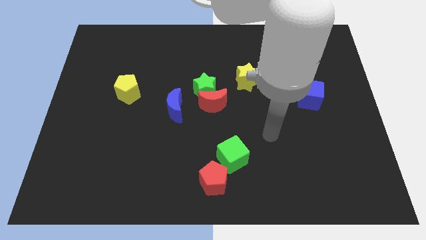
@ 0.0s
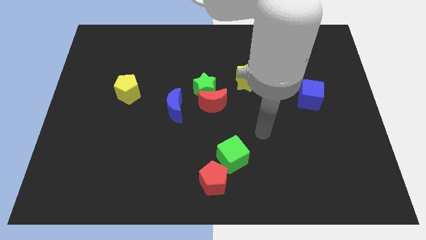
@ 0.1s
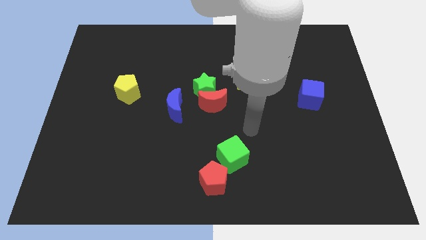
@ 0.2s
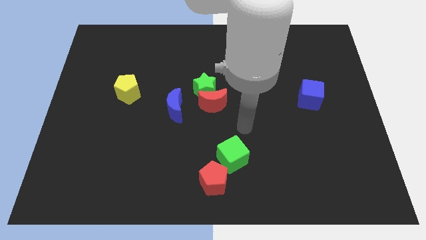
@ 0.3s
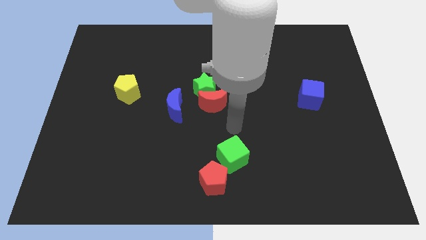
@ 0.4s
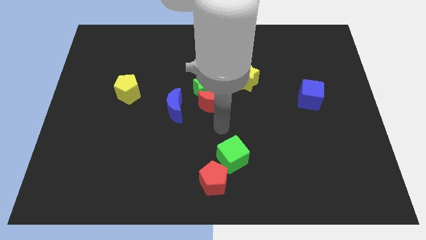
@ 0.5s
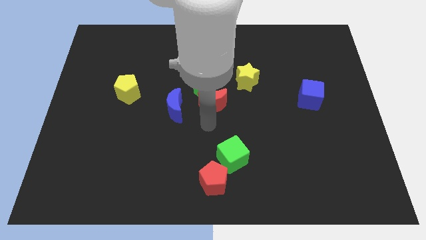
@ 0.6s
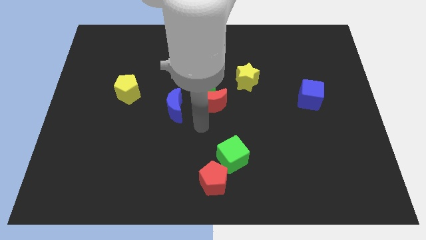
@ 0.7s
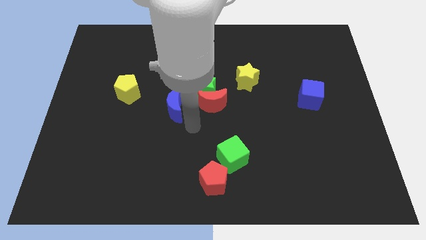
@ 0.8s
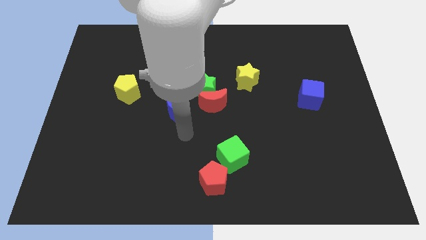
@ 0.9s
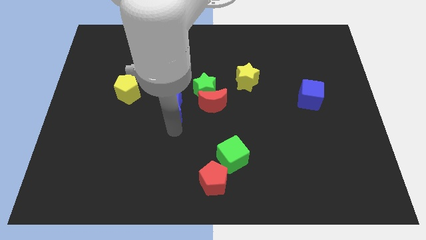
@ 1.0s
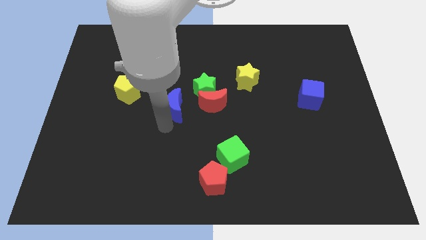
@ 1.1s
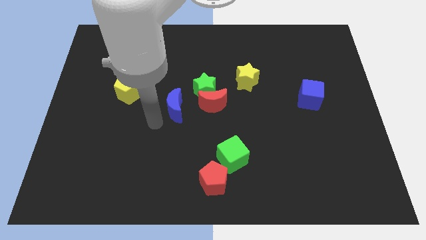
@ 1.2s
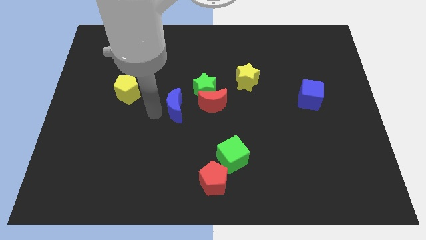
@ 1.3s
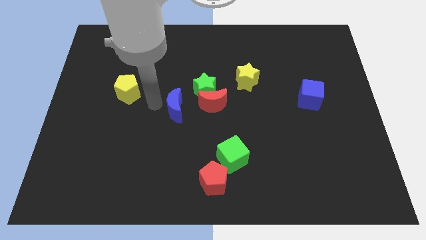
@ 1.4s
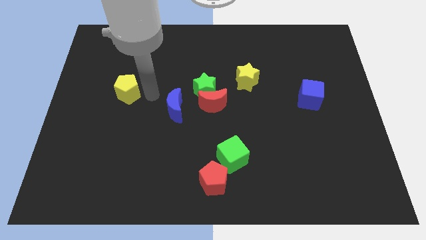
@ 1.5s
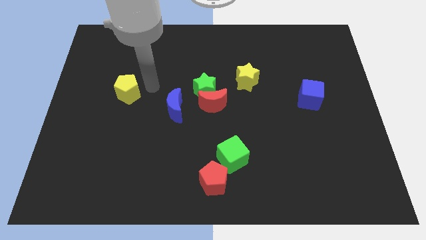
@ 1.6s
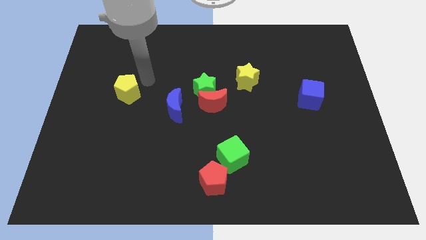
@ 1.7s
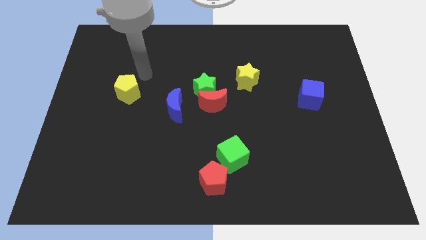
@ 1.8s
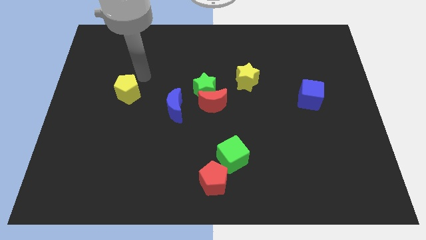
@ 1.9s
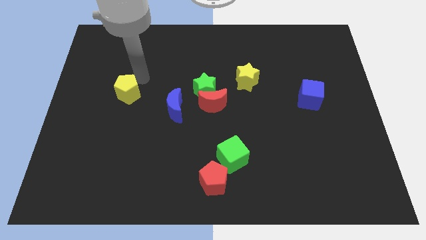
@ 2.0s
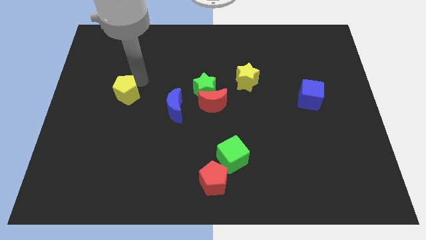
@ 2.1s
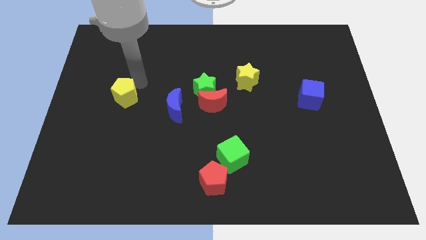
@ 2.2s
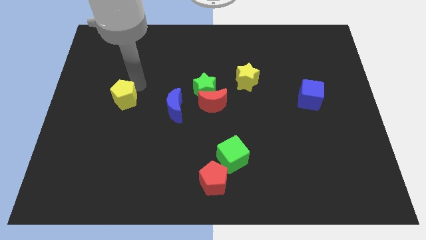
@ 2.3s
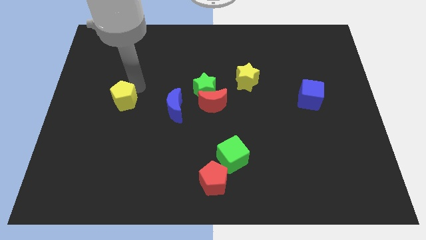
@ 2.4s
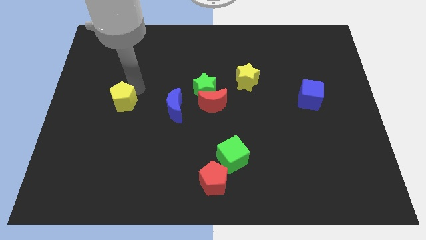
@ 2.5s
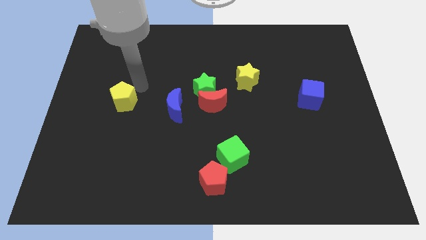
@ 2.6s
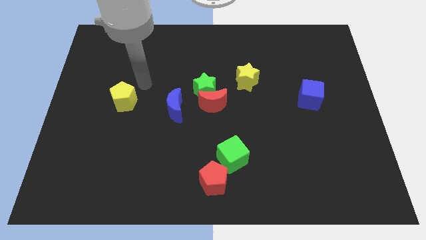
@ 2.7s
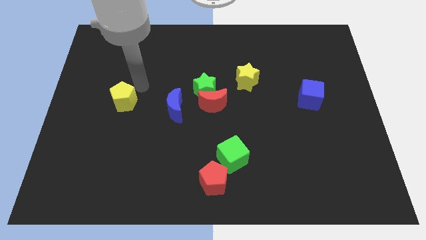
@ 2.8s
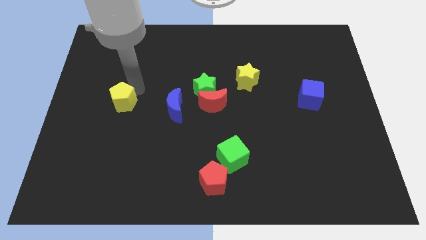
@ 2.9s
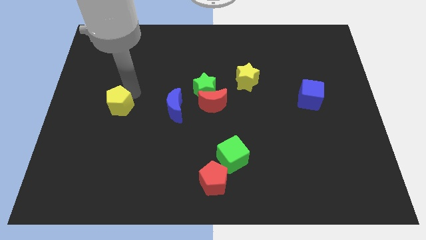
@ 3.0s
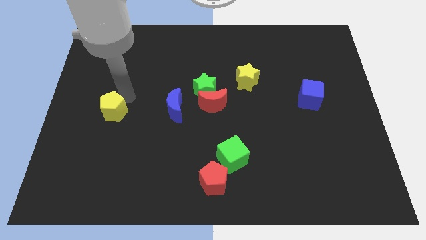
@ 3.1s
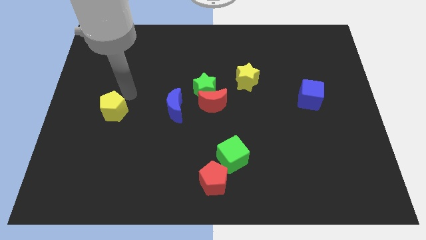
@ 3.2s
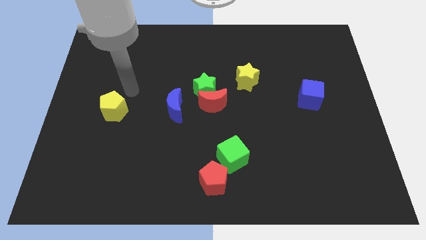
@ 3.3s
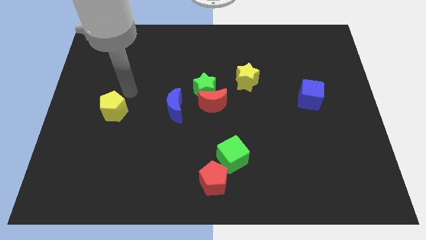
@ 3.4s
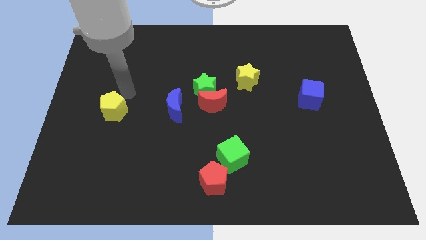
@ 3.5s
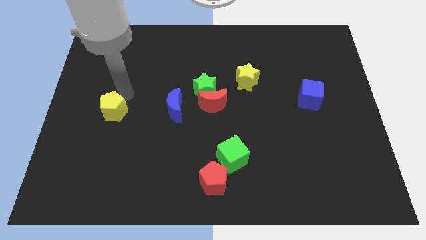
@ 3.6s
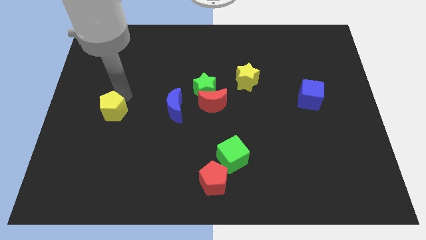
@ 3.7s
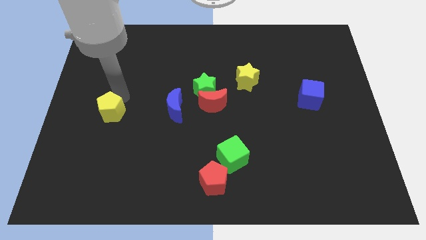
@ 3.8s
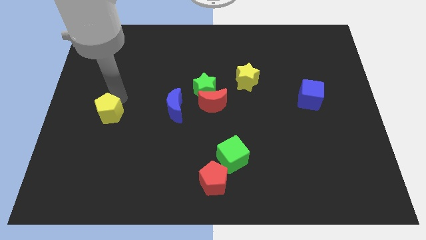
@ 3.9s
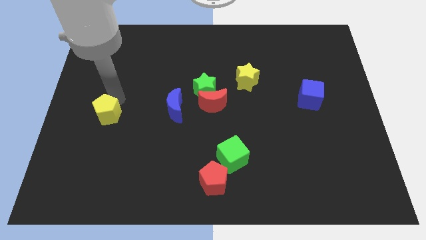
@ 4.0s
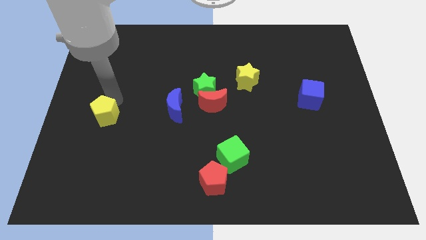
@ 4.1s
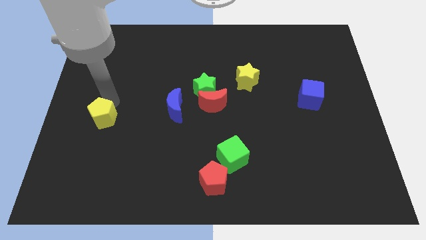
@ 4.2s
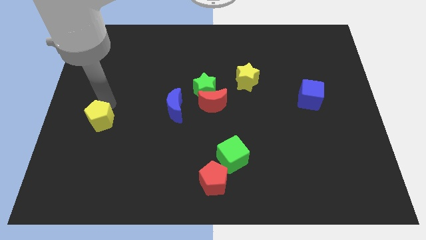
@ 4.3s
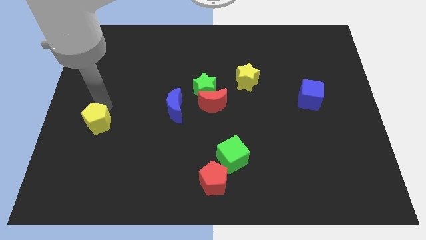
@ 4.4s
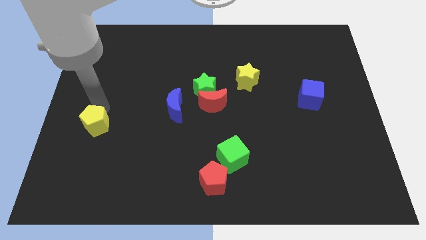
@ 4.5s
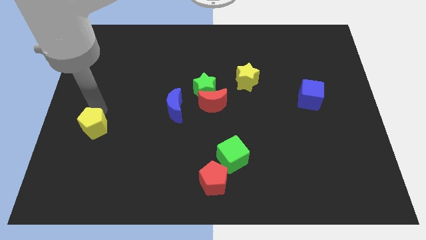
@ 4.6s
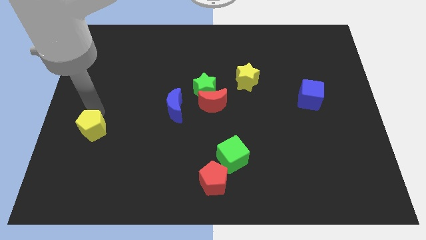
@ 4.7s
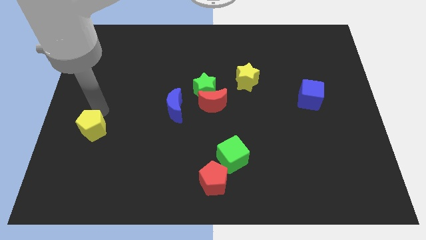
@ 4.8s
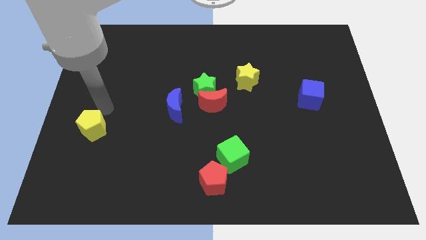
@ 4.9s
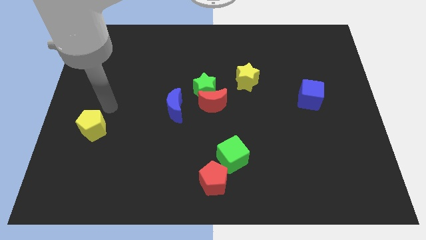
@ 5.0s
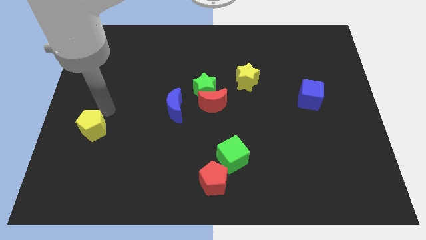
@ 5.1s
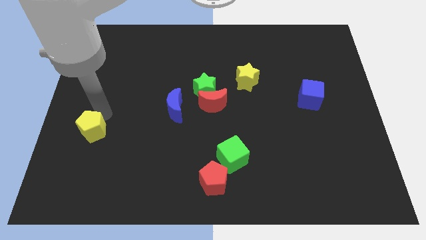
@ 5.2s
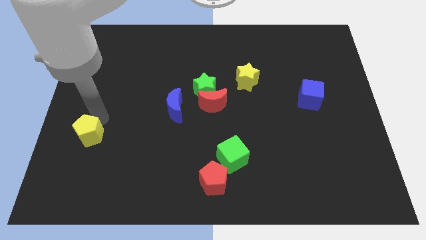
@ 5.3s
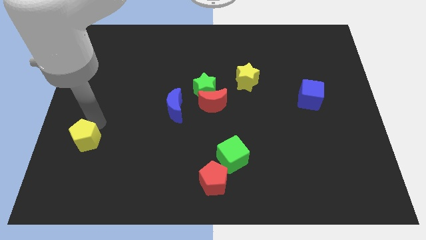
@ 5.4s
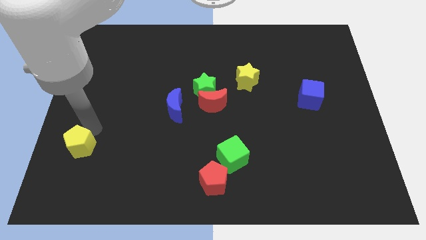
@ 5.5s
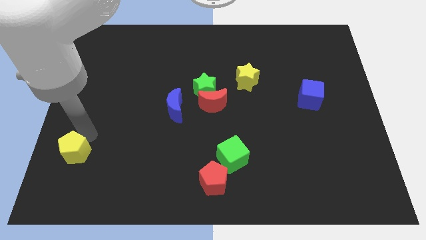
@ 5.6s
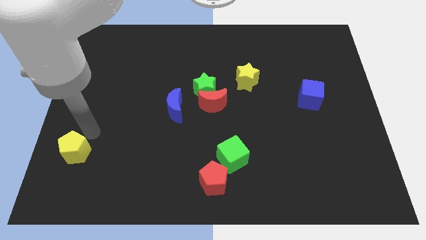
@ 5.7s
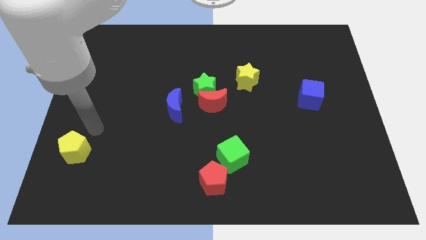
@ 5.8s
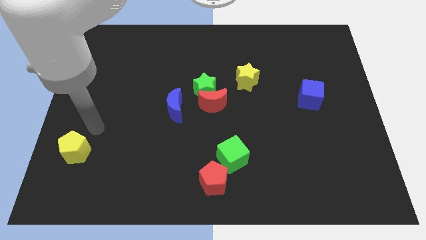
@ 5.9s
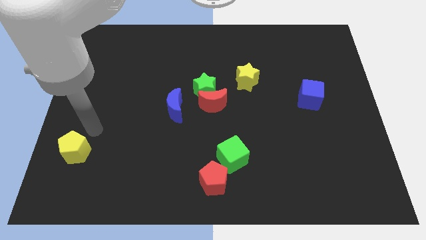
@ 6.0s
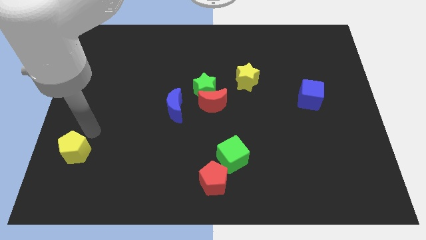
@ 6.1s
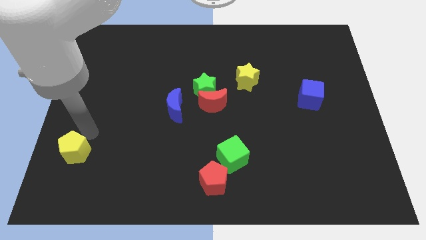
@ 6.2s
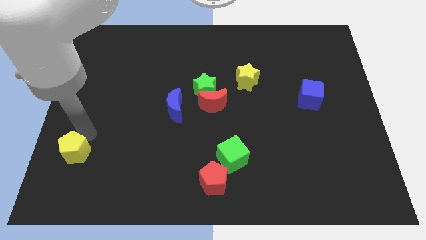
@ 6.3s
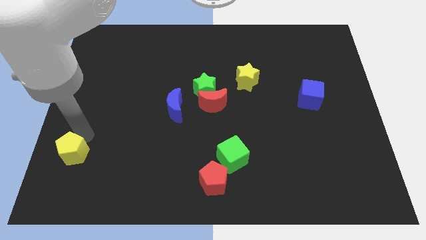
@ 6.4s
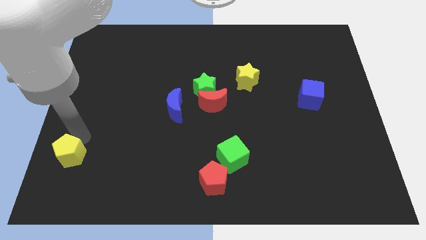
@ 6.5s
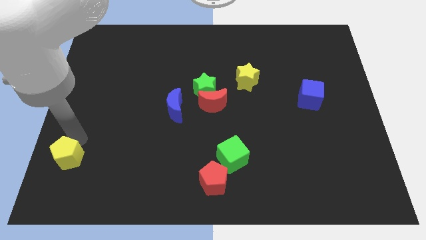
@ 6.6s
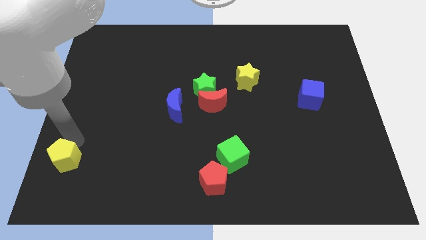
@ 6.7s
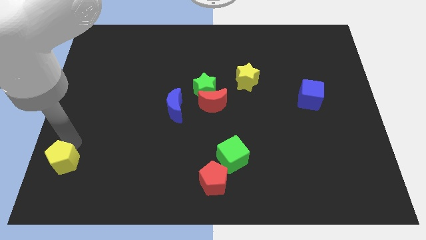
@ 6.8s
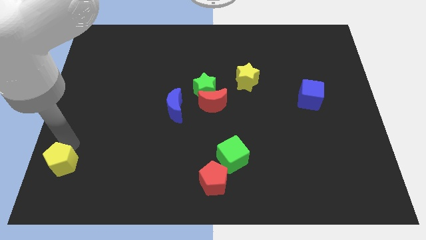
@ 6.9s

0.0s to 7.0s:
put the yellow pentagon to the bottom left of the board
